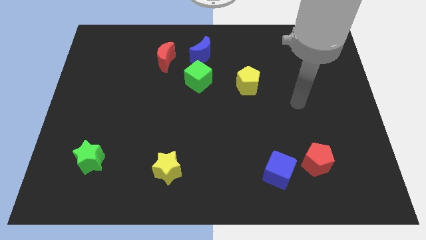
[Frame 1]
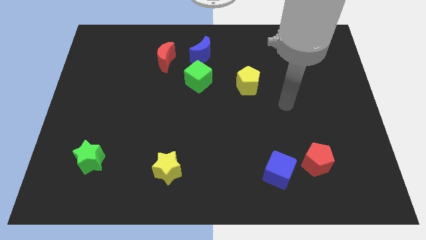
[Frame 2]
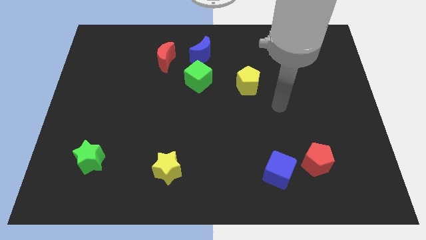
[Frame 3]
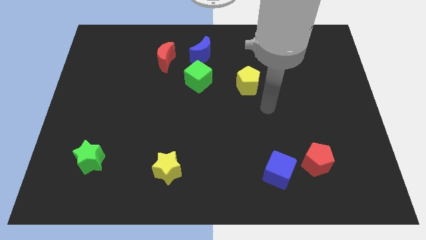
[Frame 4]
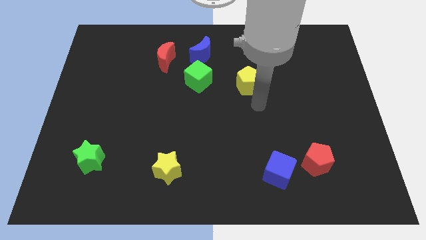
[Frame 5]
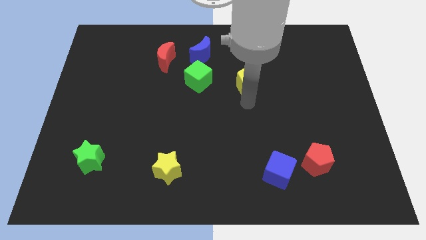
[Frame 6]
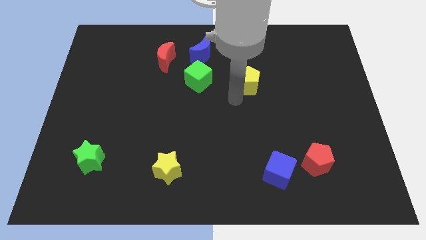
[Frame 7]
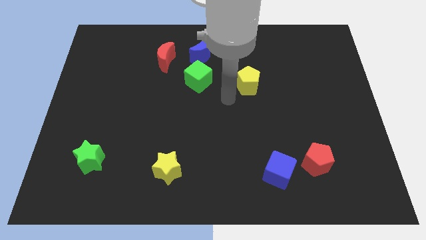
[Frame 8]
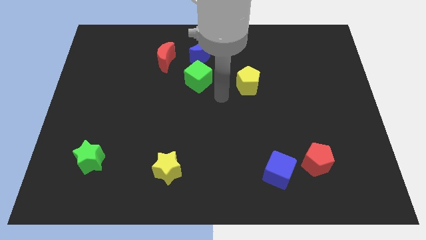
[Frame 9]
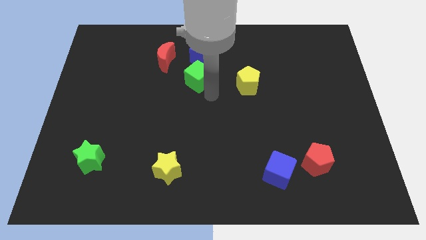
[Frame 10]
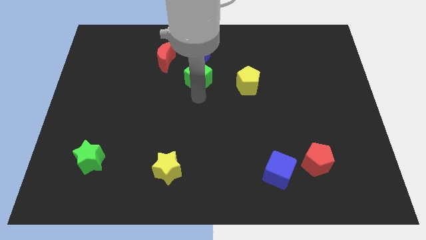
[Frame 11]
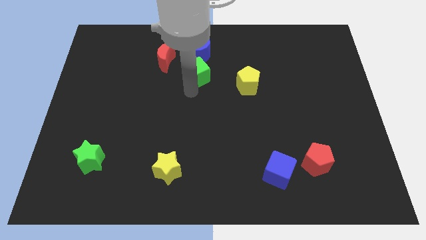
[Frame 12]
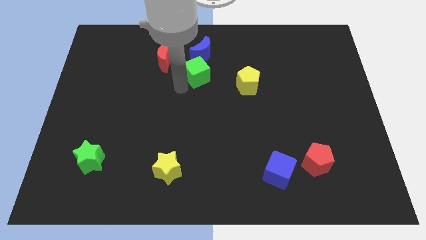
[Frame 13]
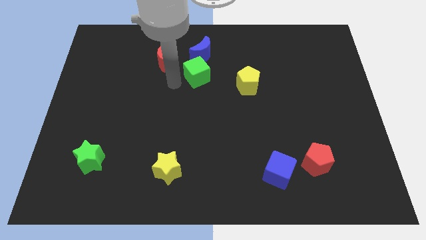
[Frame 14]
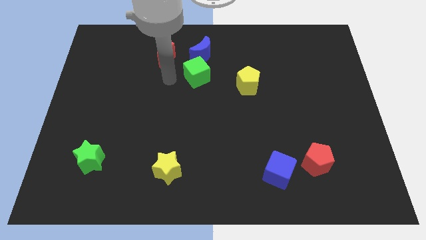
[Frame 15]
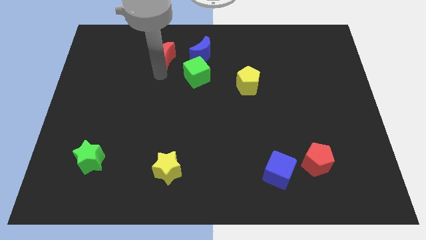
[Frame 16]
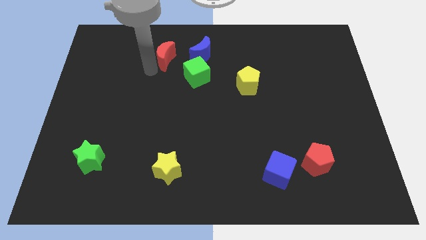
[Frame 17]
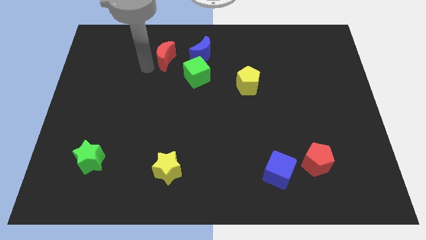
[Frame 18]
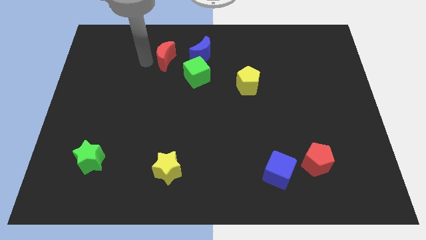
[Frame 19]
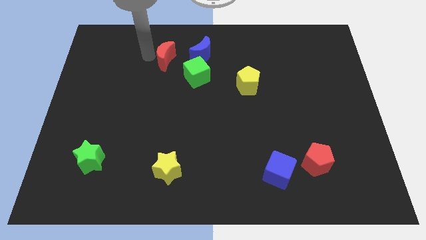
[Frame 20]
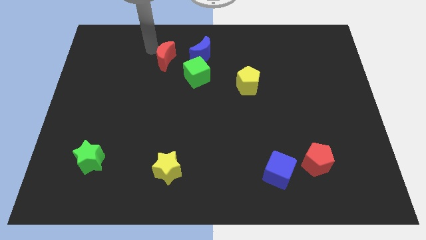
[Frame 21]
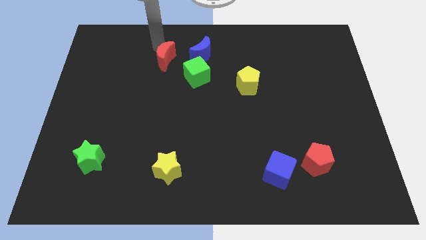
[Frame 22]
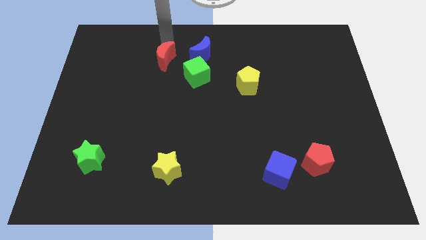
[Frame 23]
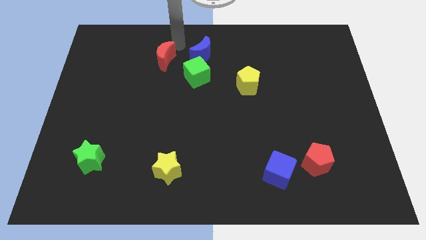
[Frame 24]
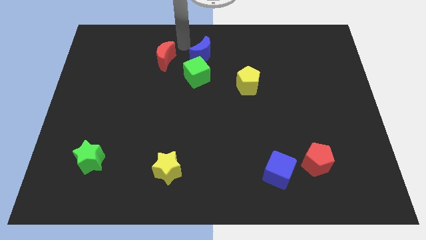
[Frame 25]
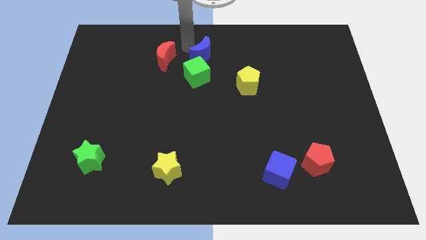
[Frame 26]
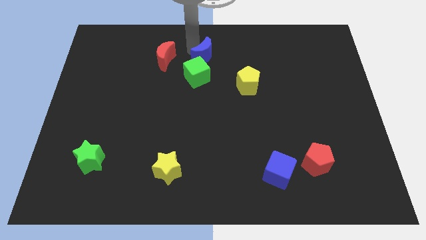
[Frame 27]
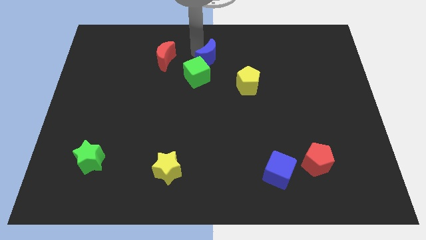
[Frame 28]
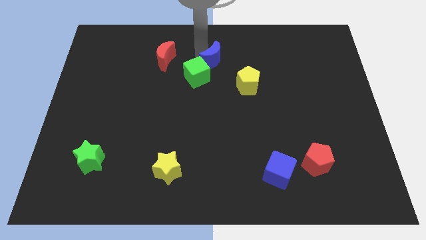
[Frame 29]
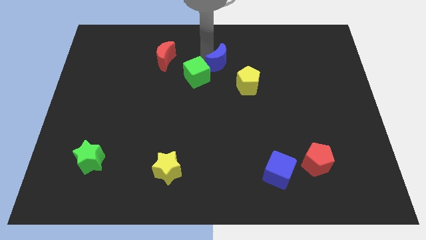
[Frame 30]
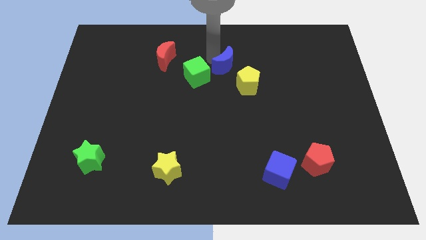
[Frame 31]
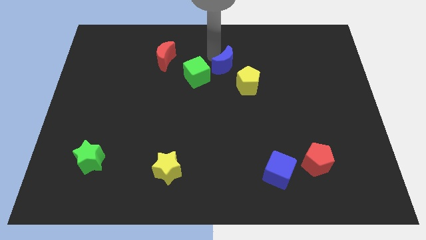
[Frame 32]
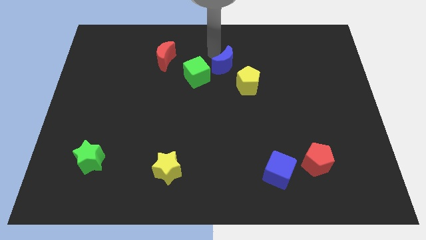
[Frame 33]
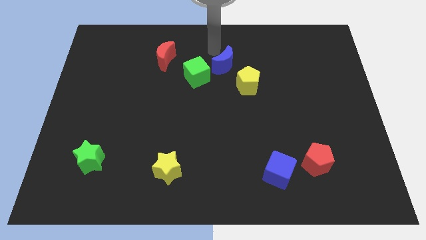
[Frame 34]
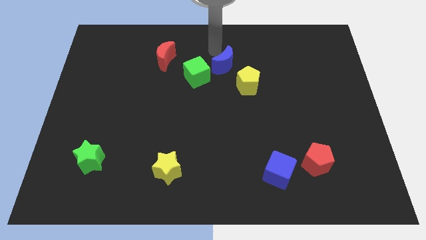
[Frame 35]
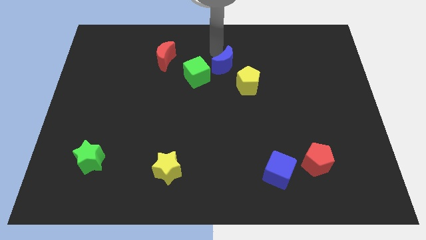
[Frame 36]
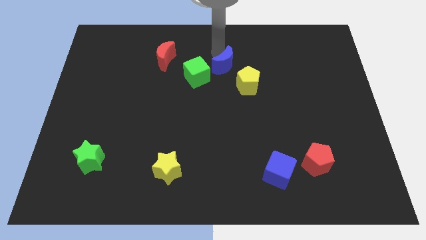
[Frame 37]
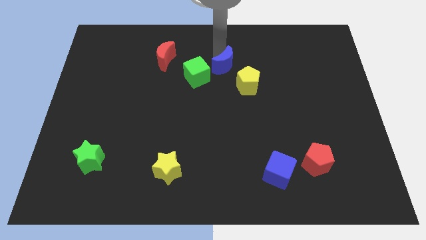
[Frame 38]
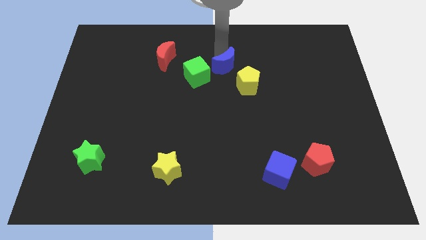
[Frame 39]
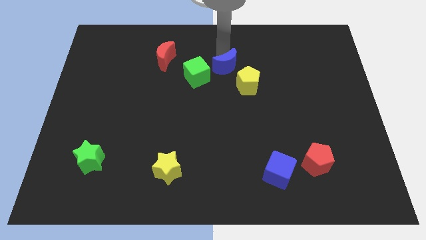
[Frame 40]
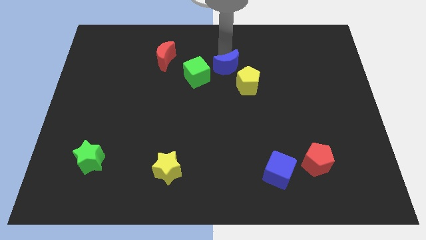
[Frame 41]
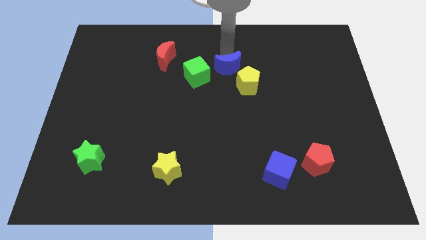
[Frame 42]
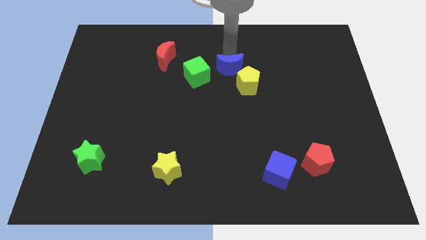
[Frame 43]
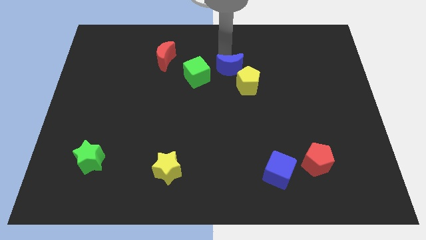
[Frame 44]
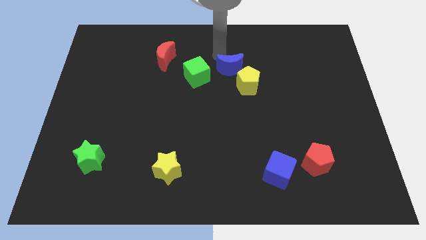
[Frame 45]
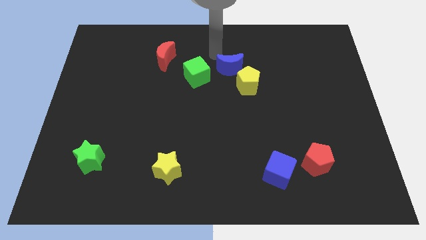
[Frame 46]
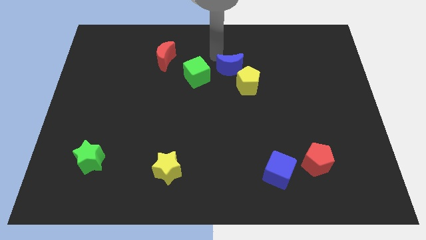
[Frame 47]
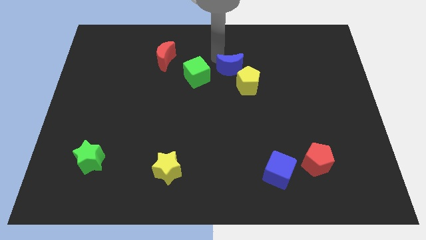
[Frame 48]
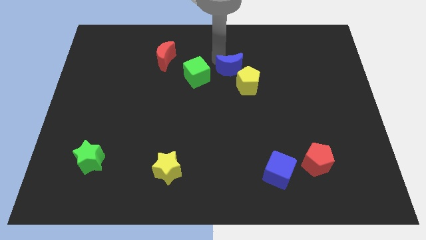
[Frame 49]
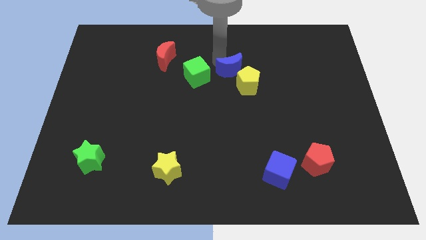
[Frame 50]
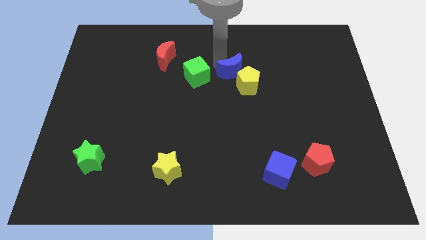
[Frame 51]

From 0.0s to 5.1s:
move the blue moon close to the yellow pentagon

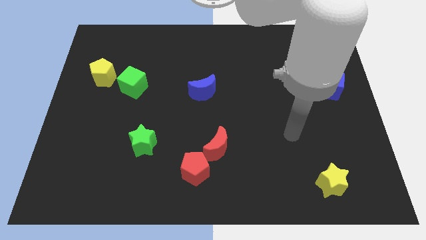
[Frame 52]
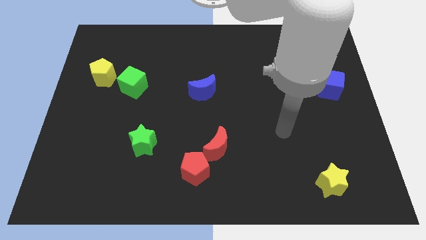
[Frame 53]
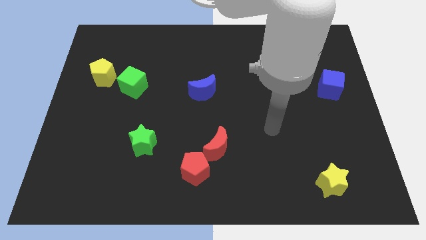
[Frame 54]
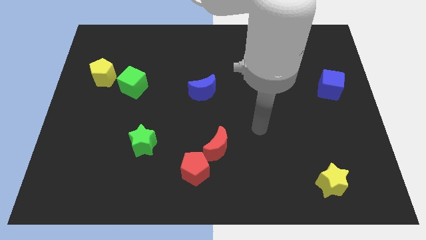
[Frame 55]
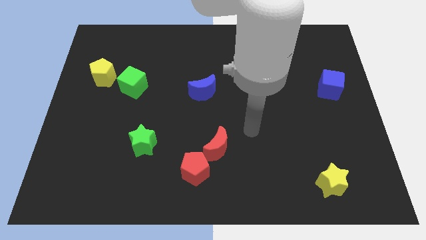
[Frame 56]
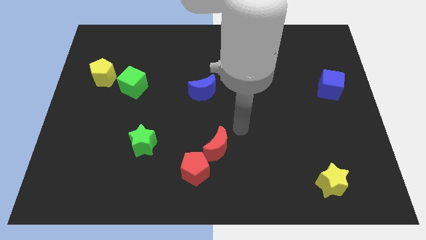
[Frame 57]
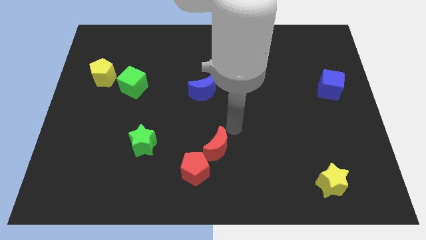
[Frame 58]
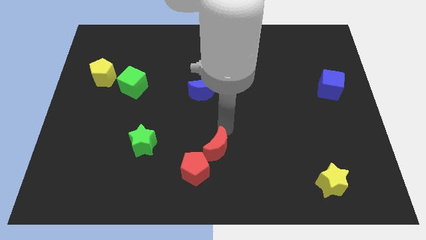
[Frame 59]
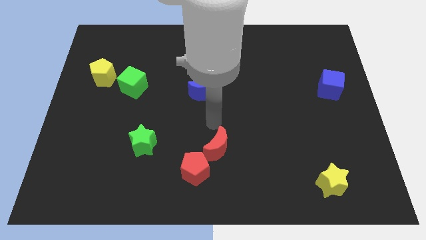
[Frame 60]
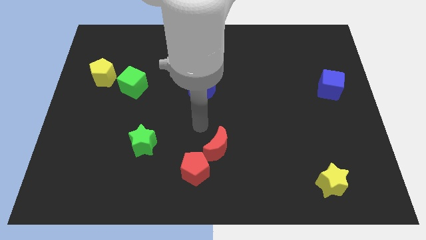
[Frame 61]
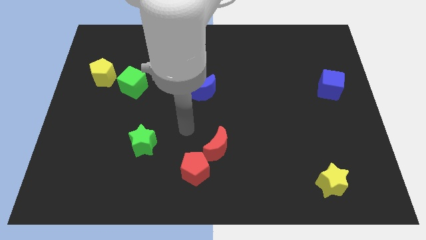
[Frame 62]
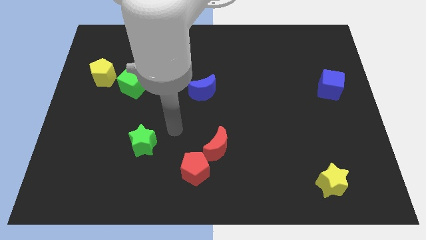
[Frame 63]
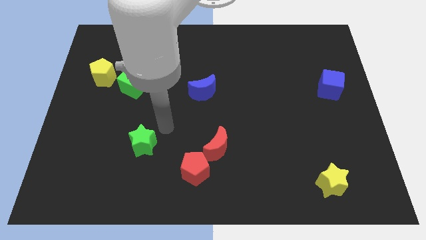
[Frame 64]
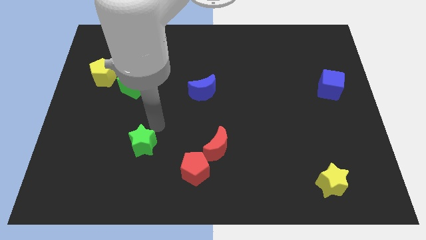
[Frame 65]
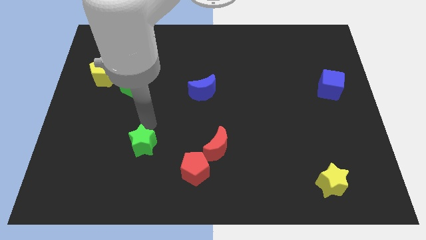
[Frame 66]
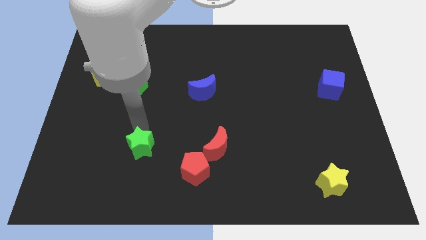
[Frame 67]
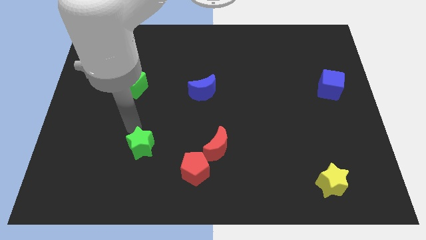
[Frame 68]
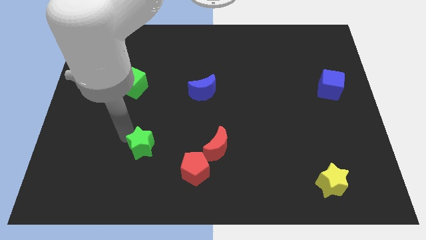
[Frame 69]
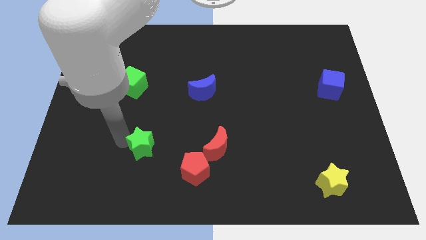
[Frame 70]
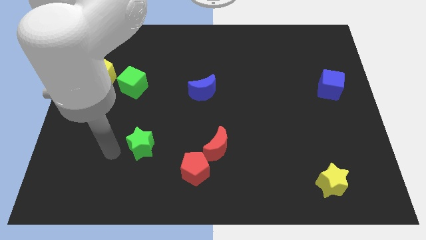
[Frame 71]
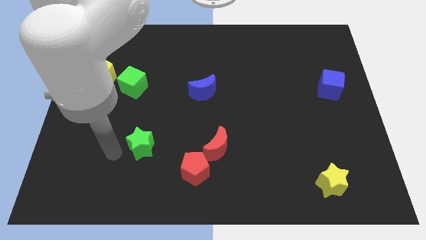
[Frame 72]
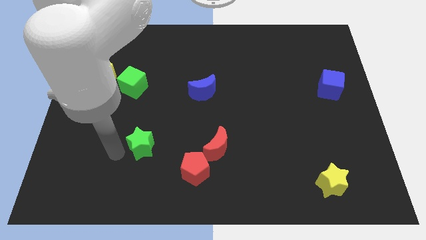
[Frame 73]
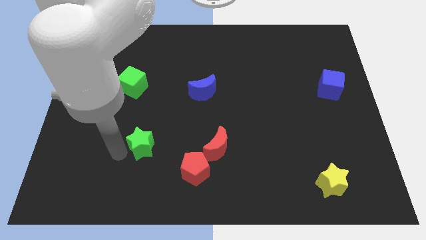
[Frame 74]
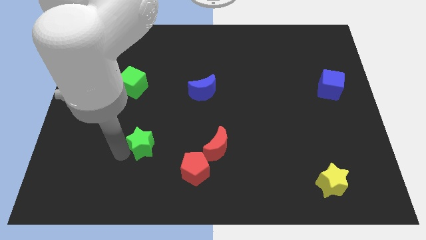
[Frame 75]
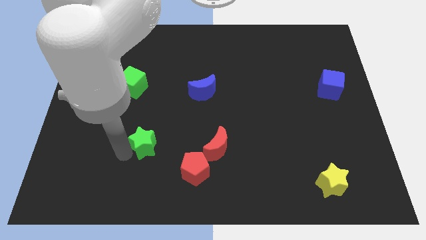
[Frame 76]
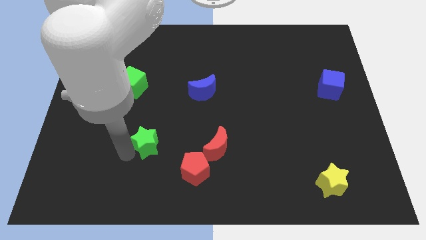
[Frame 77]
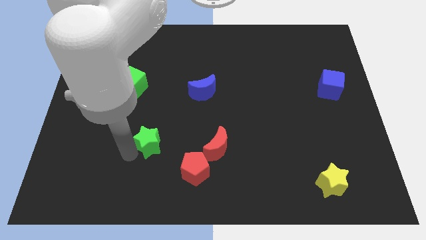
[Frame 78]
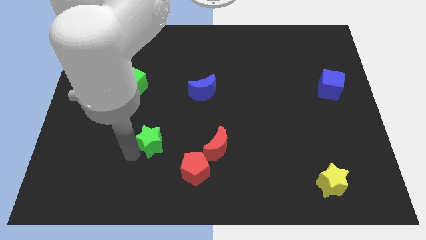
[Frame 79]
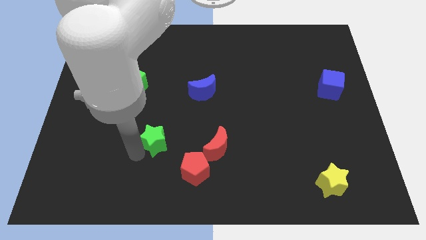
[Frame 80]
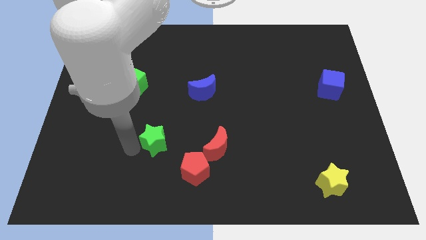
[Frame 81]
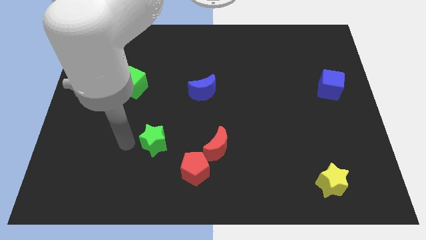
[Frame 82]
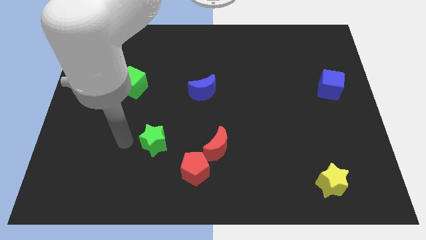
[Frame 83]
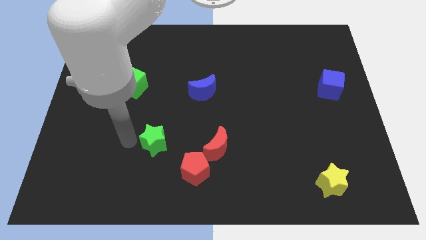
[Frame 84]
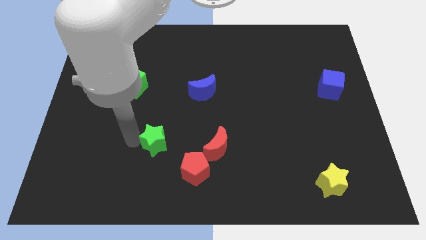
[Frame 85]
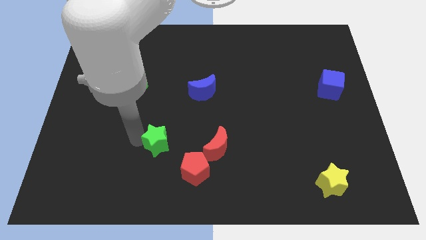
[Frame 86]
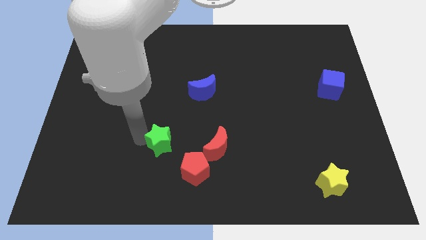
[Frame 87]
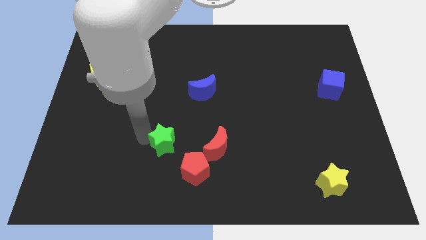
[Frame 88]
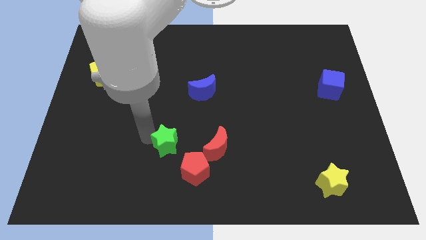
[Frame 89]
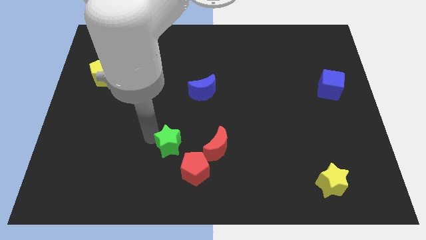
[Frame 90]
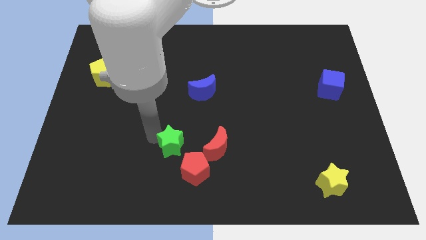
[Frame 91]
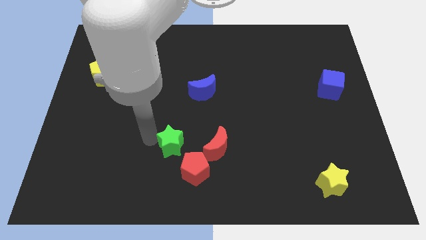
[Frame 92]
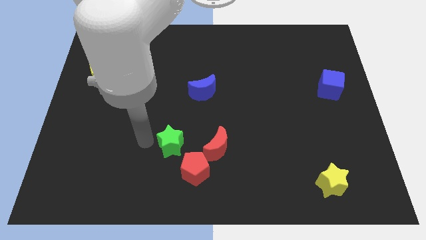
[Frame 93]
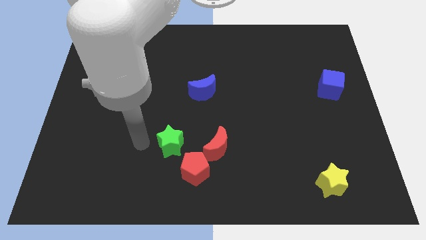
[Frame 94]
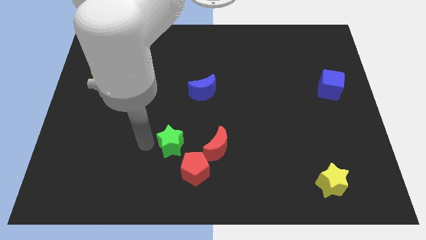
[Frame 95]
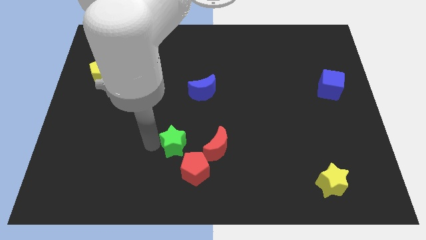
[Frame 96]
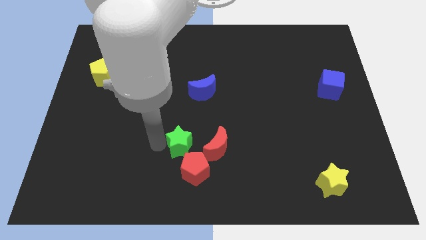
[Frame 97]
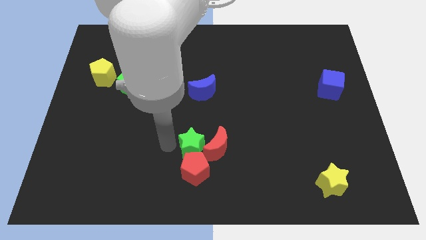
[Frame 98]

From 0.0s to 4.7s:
slide the green star close to the red moon
